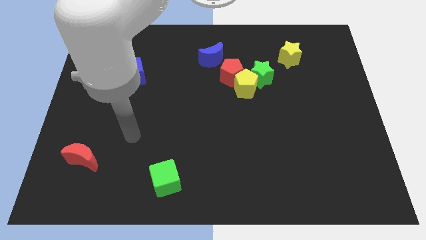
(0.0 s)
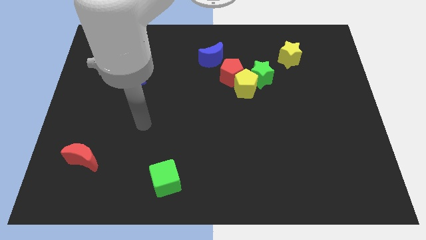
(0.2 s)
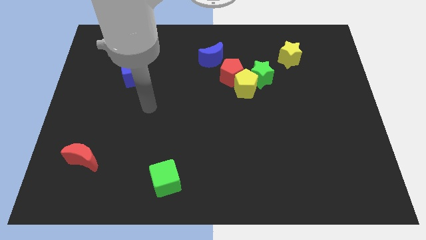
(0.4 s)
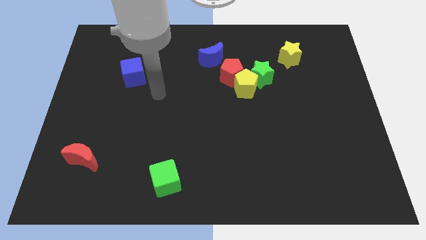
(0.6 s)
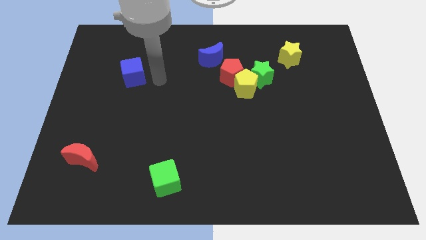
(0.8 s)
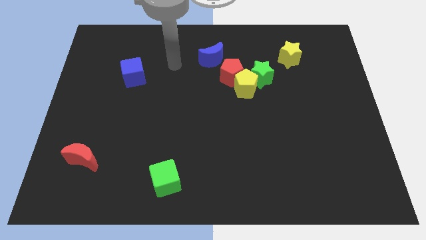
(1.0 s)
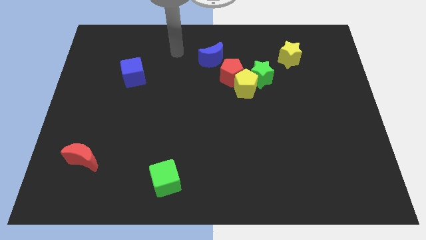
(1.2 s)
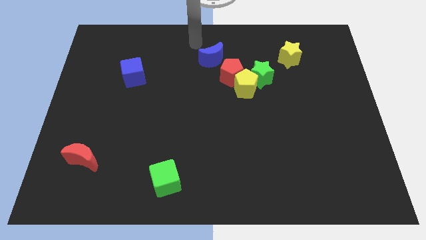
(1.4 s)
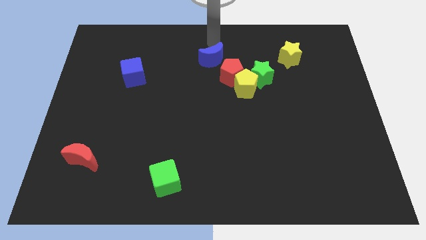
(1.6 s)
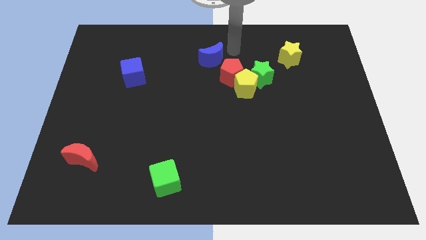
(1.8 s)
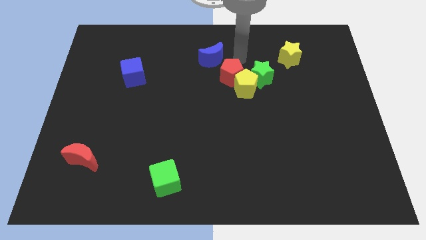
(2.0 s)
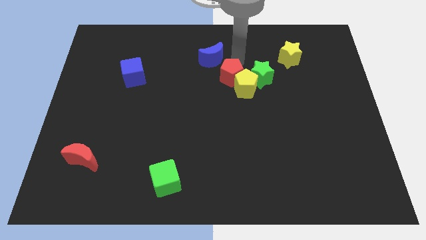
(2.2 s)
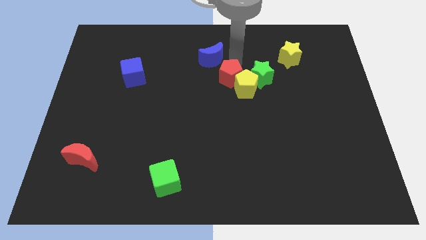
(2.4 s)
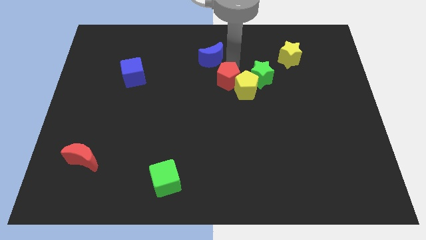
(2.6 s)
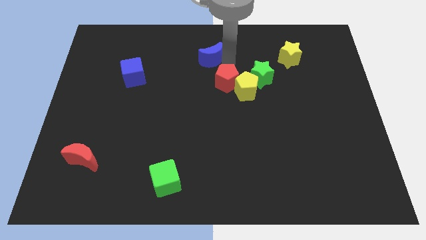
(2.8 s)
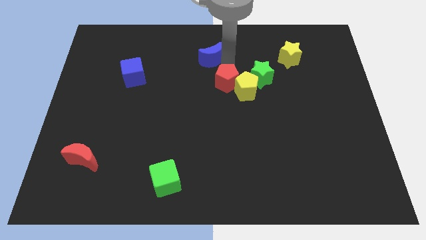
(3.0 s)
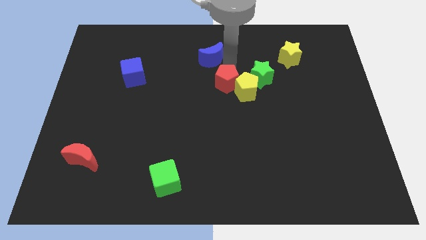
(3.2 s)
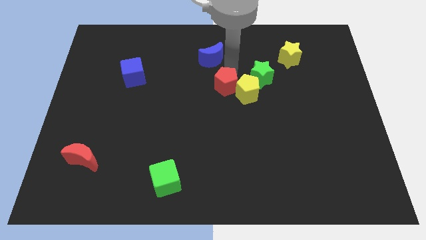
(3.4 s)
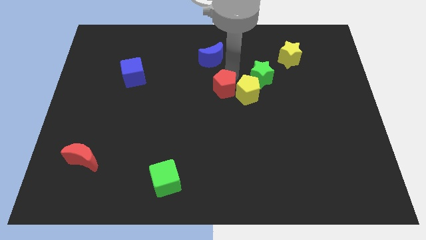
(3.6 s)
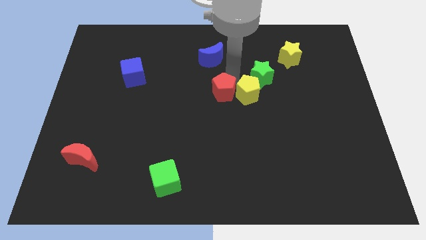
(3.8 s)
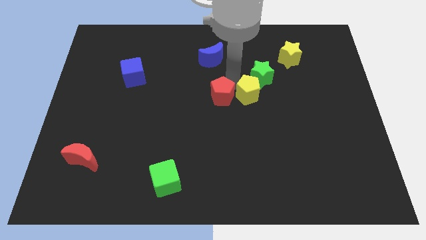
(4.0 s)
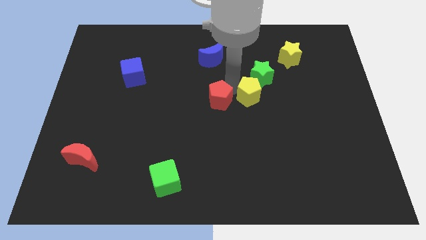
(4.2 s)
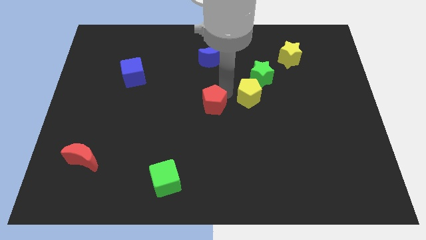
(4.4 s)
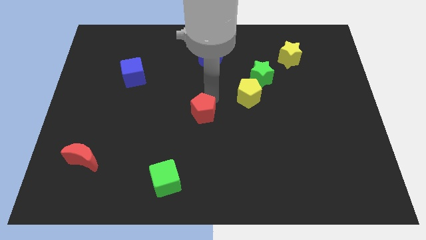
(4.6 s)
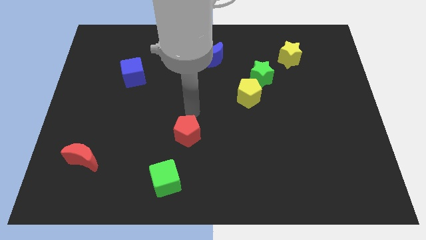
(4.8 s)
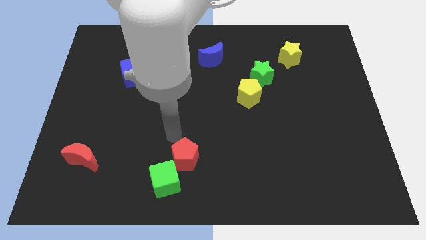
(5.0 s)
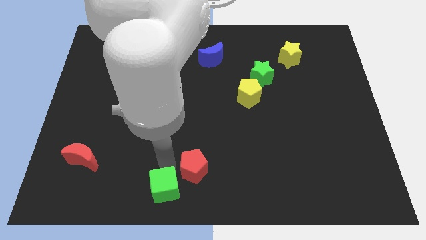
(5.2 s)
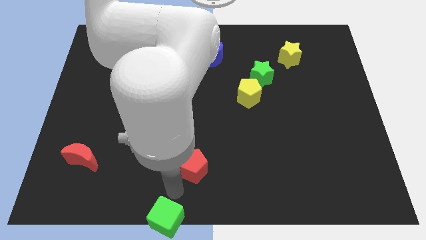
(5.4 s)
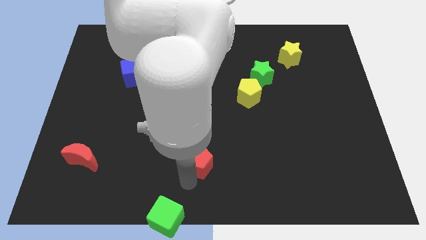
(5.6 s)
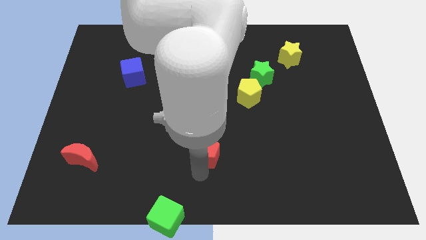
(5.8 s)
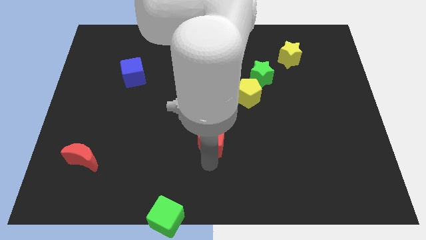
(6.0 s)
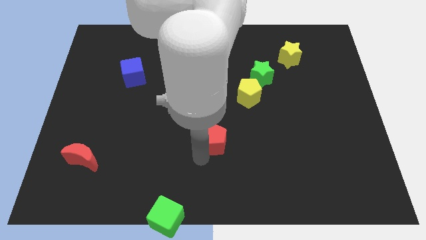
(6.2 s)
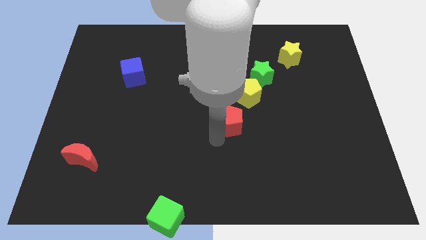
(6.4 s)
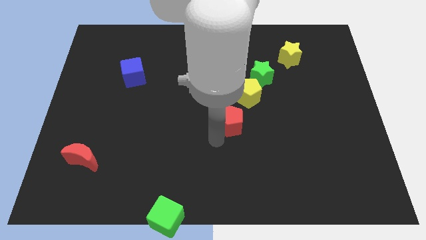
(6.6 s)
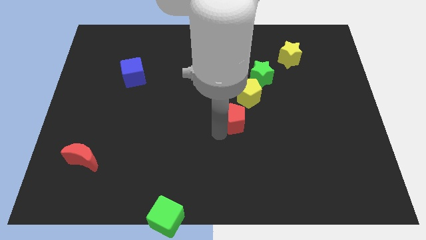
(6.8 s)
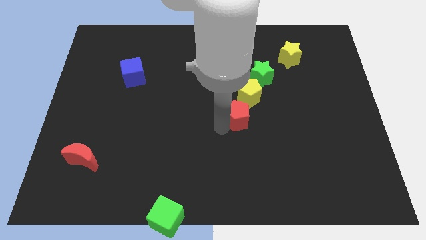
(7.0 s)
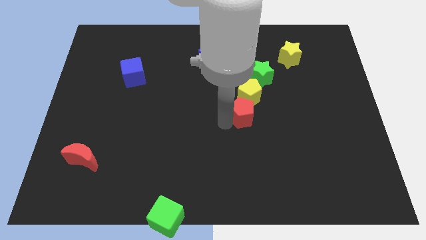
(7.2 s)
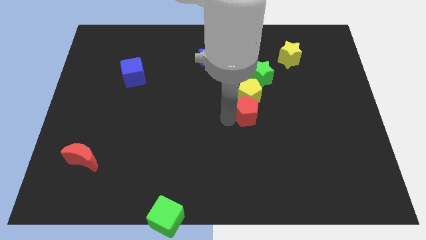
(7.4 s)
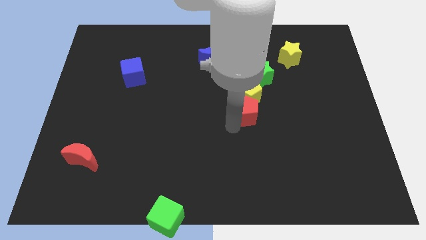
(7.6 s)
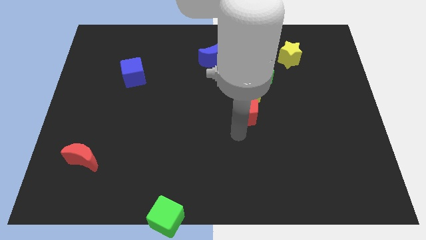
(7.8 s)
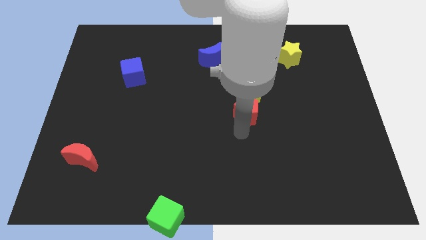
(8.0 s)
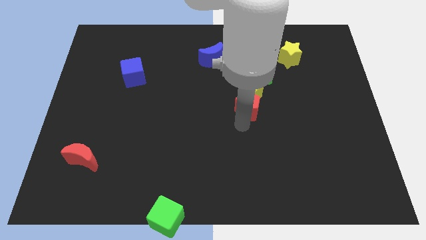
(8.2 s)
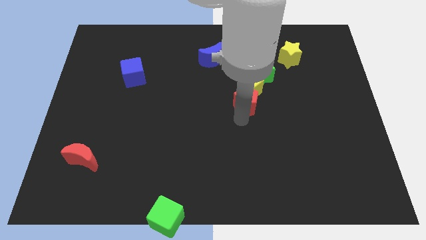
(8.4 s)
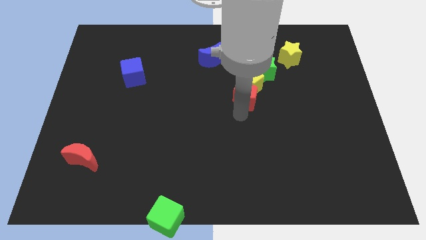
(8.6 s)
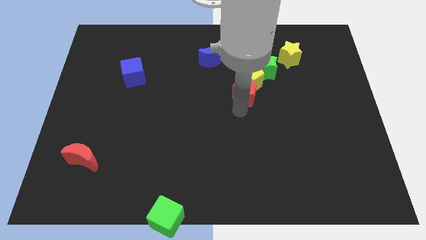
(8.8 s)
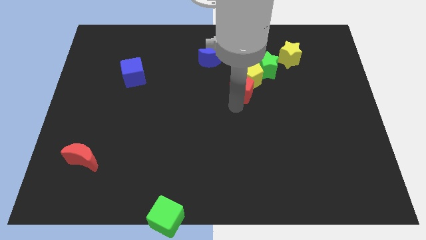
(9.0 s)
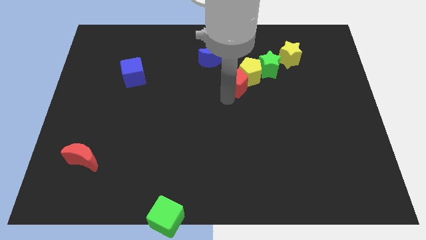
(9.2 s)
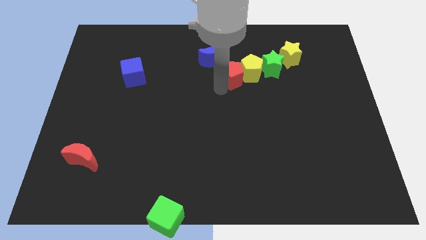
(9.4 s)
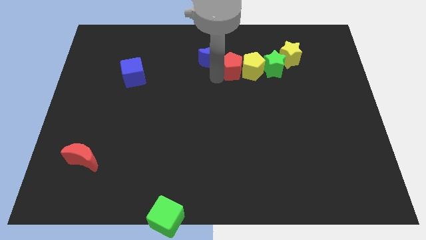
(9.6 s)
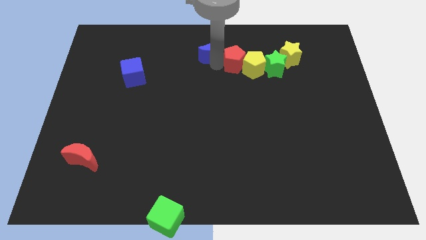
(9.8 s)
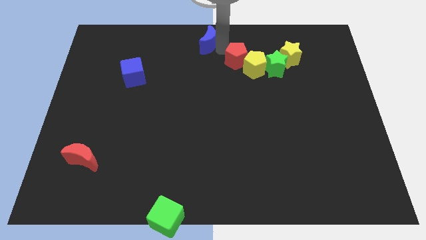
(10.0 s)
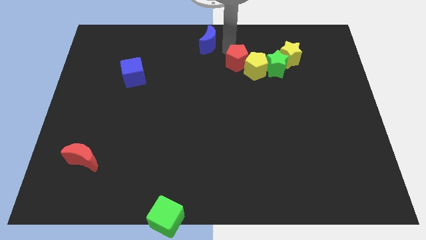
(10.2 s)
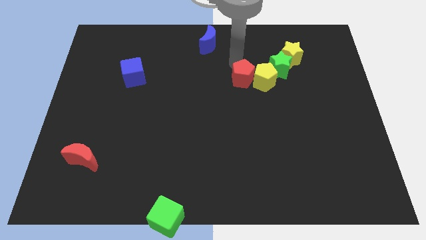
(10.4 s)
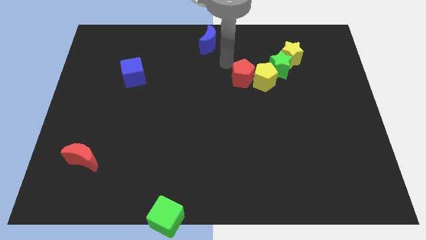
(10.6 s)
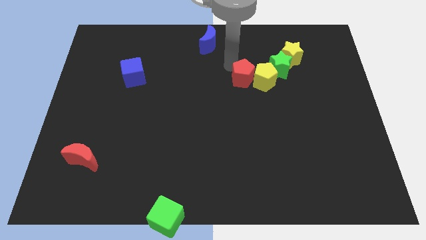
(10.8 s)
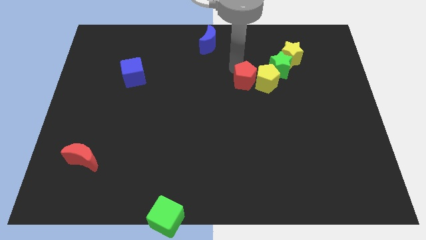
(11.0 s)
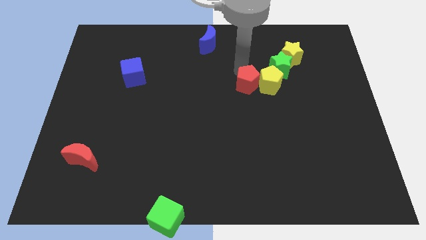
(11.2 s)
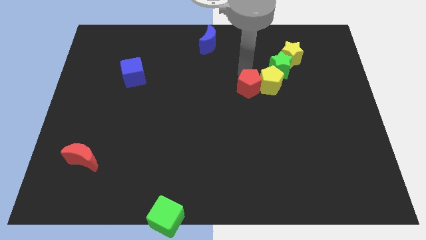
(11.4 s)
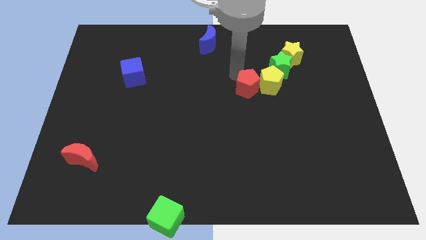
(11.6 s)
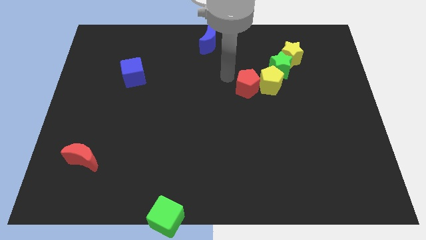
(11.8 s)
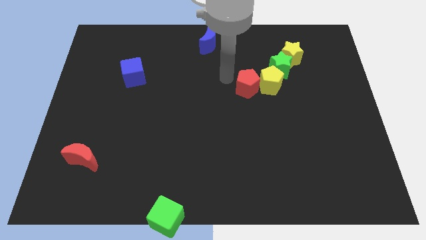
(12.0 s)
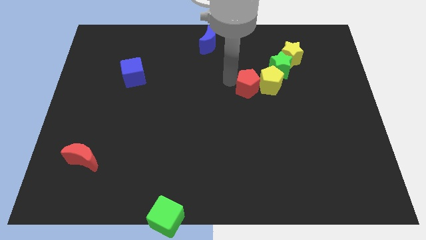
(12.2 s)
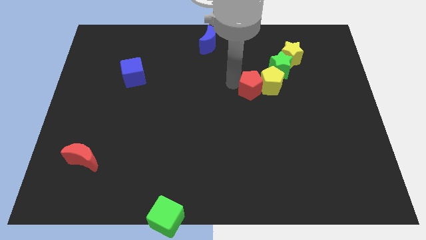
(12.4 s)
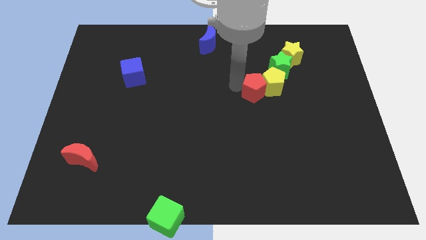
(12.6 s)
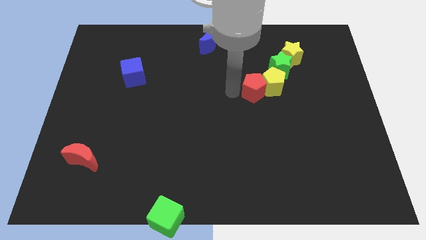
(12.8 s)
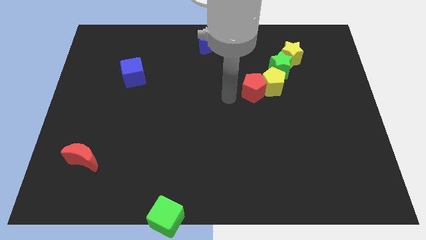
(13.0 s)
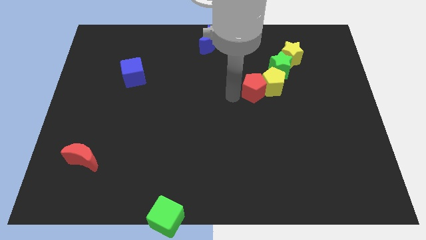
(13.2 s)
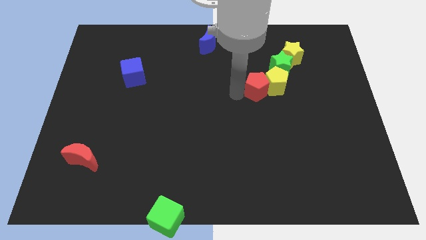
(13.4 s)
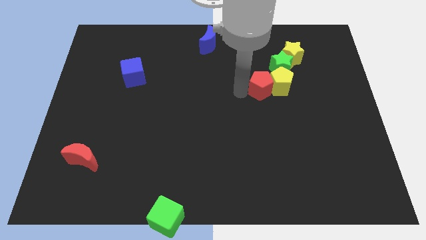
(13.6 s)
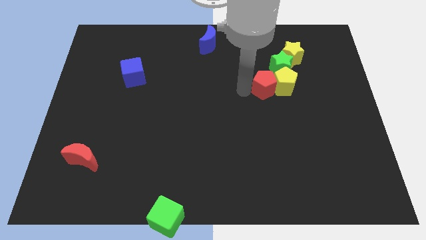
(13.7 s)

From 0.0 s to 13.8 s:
move the red pentagon to the right slightly

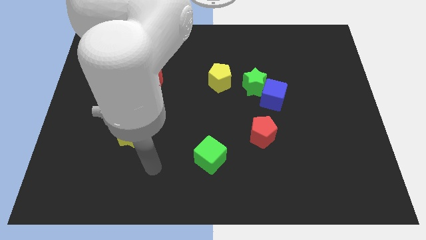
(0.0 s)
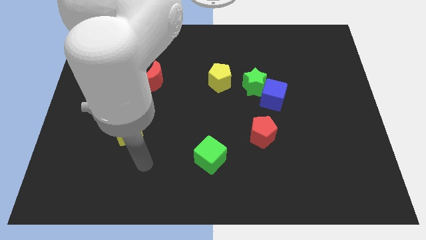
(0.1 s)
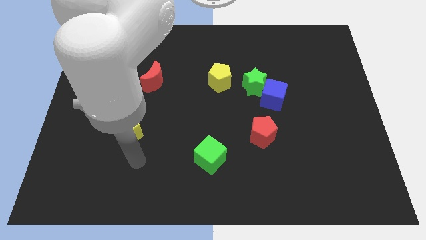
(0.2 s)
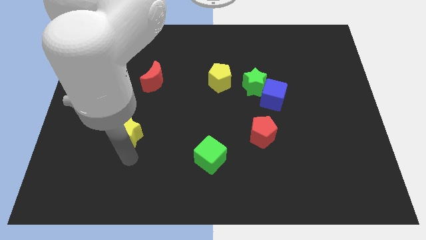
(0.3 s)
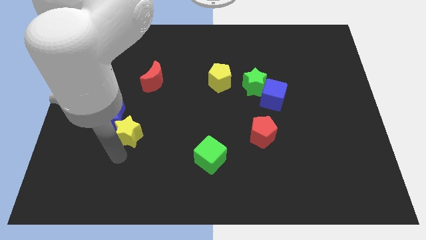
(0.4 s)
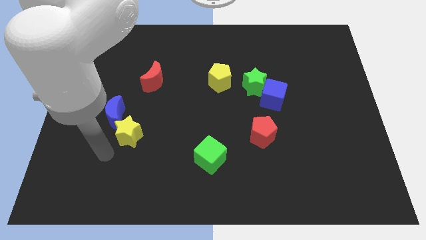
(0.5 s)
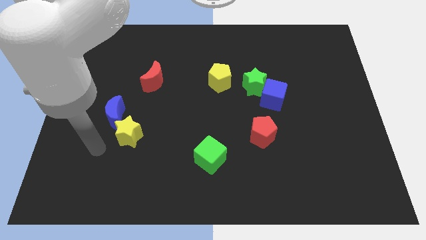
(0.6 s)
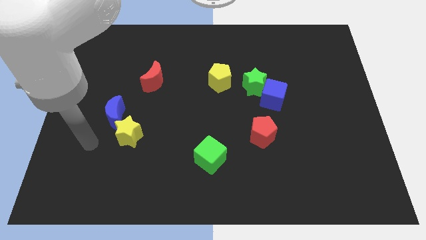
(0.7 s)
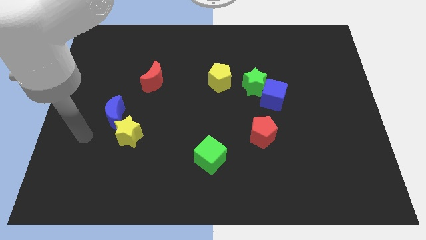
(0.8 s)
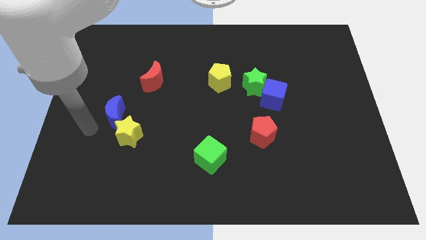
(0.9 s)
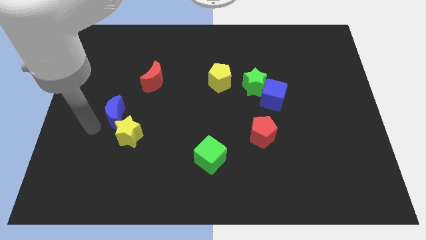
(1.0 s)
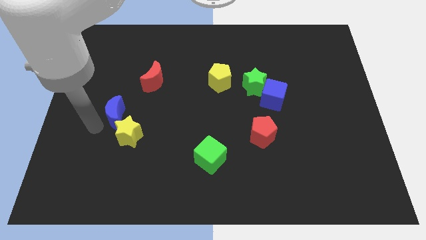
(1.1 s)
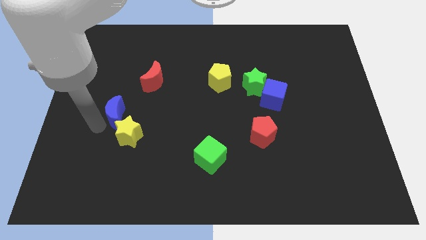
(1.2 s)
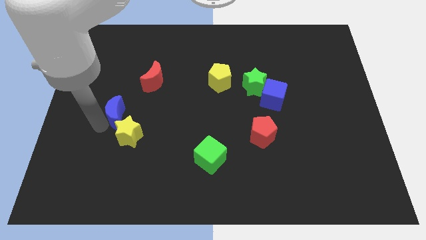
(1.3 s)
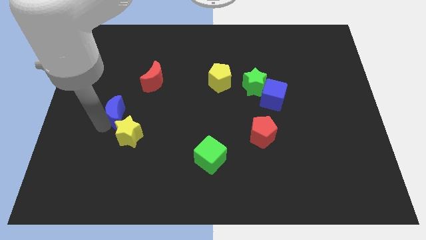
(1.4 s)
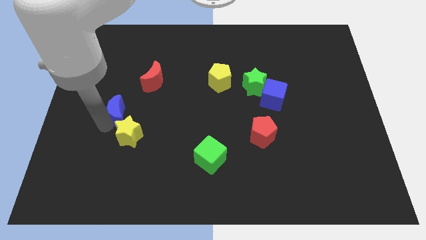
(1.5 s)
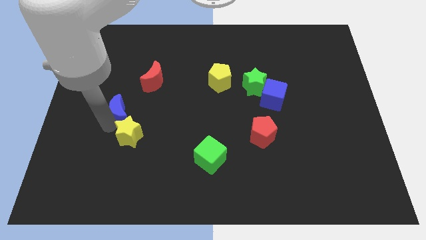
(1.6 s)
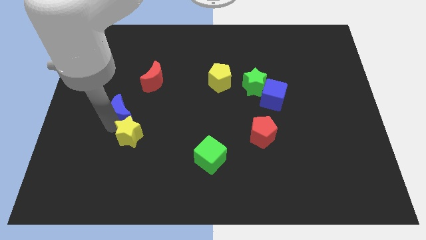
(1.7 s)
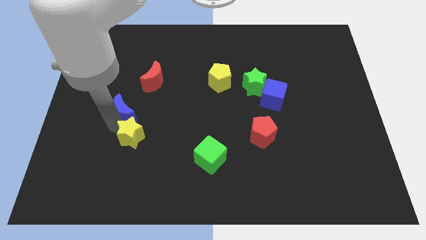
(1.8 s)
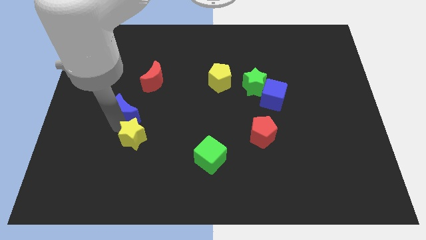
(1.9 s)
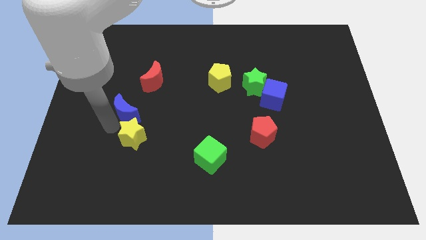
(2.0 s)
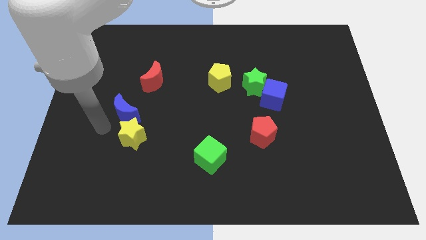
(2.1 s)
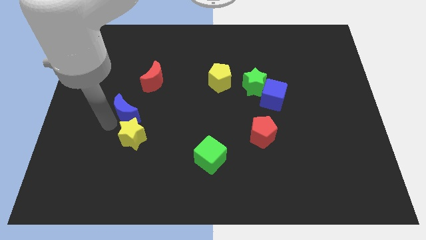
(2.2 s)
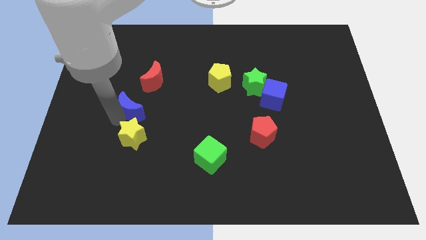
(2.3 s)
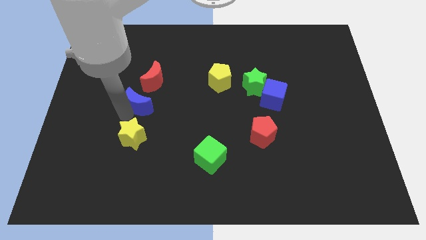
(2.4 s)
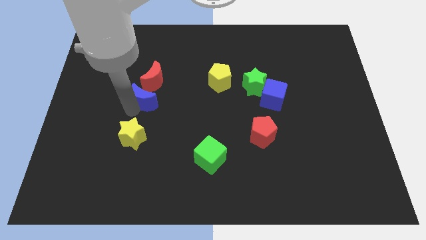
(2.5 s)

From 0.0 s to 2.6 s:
move the blue moon slightly diagonally up and to the right
